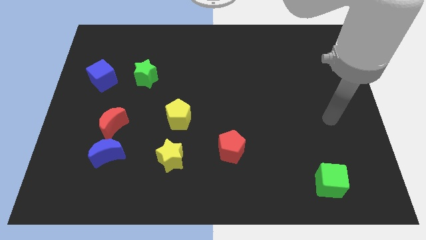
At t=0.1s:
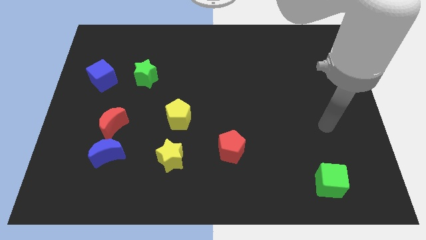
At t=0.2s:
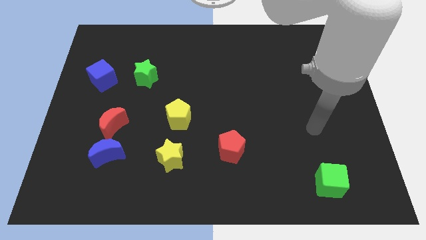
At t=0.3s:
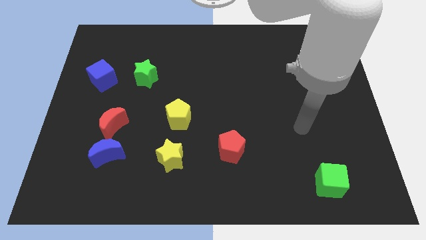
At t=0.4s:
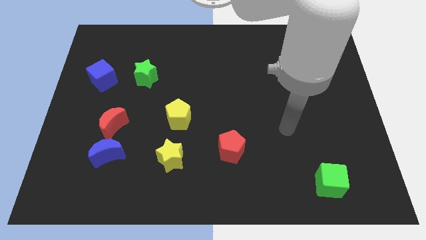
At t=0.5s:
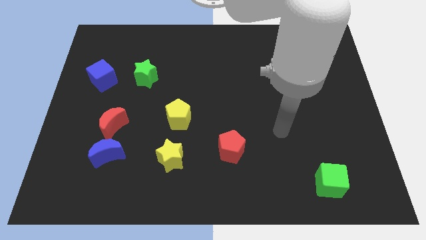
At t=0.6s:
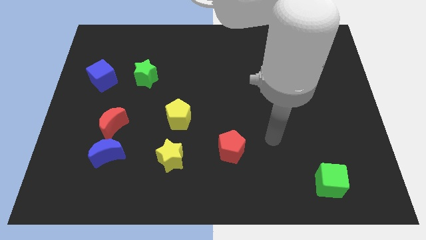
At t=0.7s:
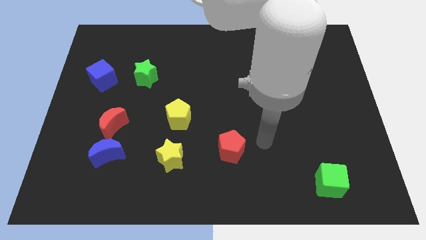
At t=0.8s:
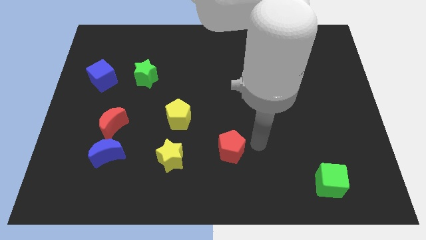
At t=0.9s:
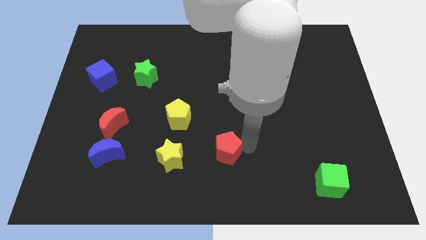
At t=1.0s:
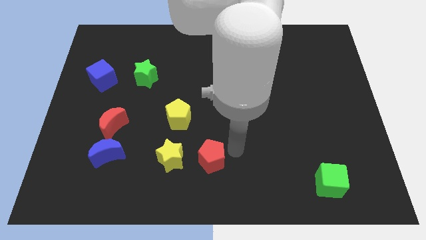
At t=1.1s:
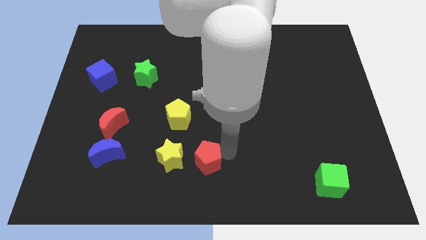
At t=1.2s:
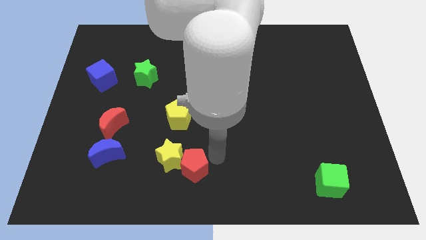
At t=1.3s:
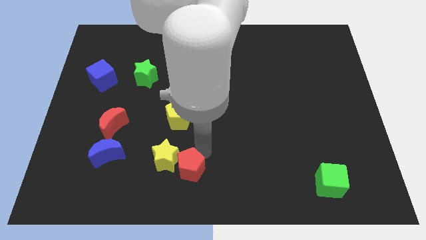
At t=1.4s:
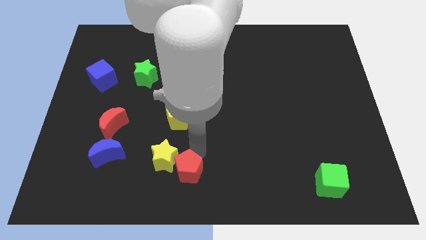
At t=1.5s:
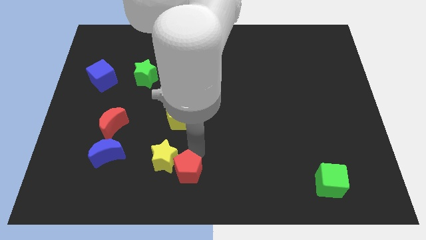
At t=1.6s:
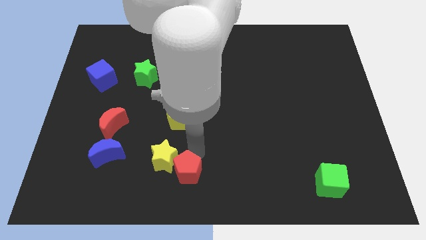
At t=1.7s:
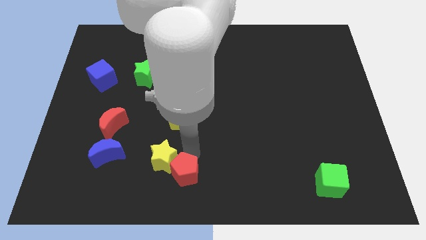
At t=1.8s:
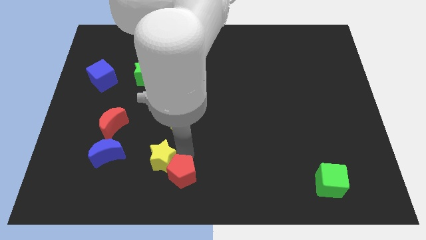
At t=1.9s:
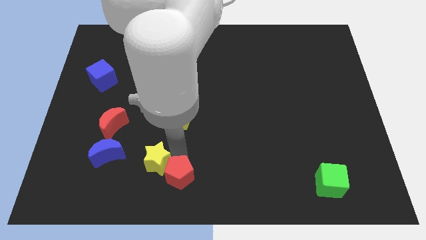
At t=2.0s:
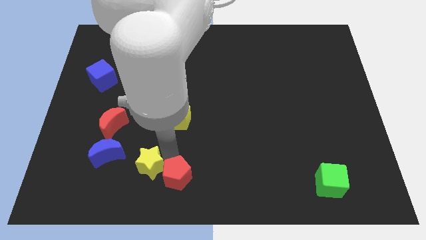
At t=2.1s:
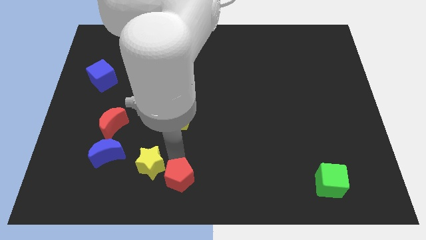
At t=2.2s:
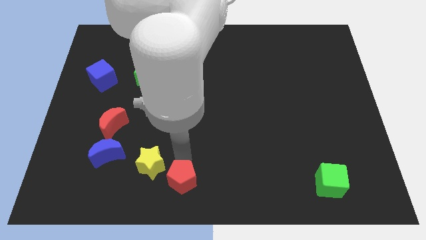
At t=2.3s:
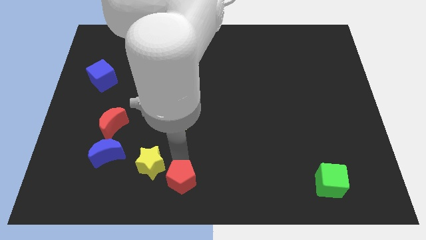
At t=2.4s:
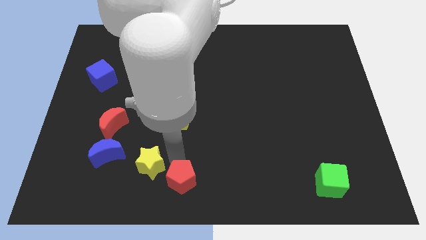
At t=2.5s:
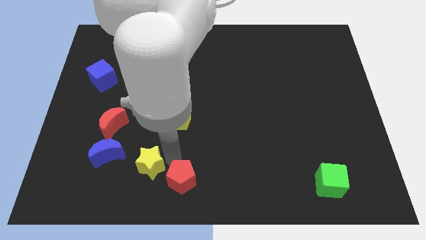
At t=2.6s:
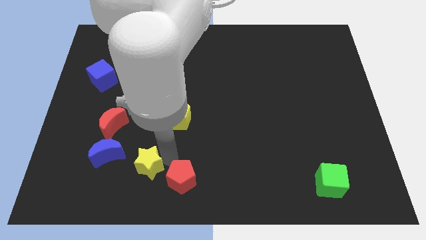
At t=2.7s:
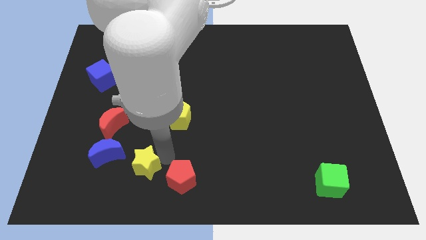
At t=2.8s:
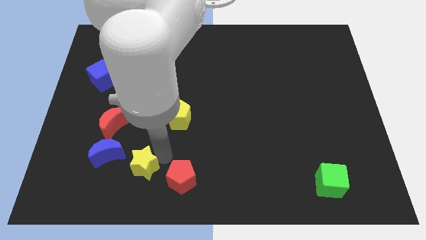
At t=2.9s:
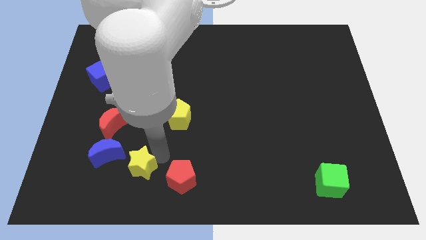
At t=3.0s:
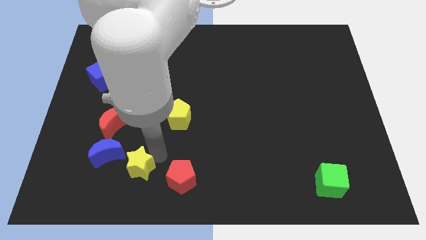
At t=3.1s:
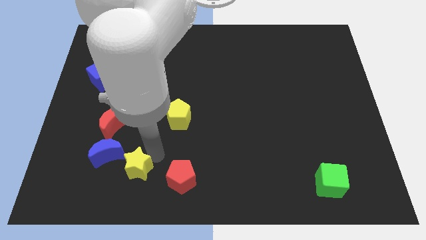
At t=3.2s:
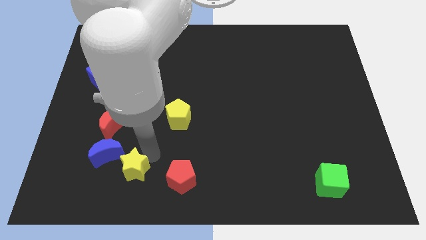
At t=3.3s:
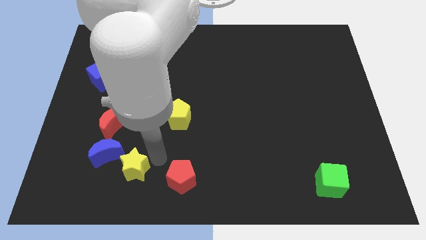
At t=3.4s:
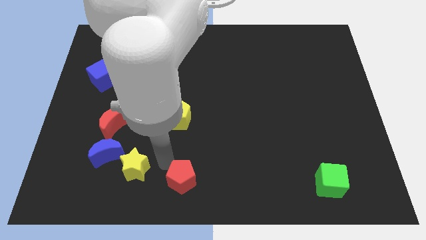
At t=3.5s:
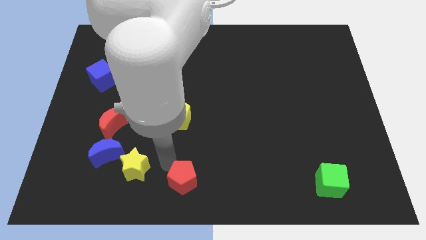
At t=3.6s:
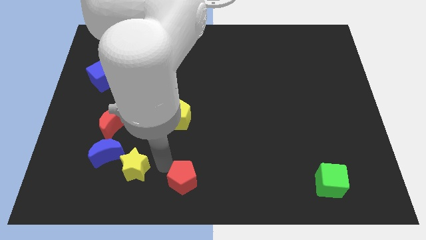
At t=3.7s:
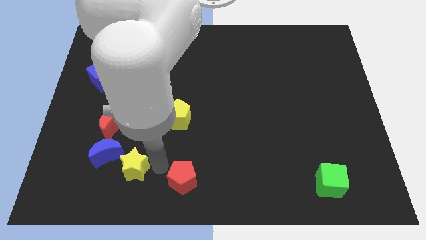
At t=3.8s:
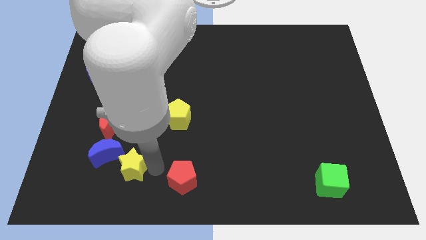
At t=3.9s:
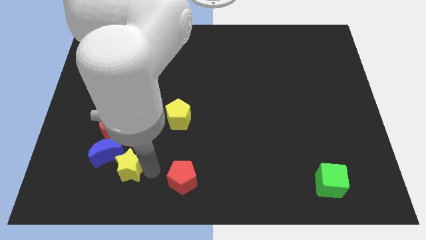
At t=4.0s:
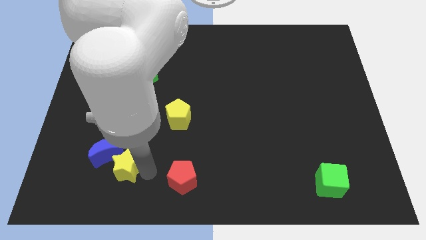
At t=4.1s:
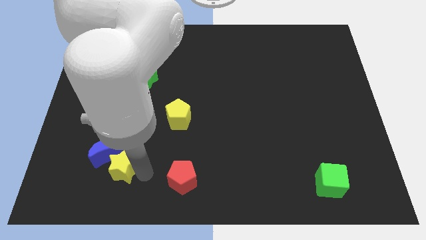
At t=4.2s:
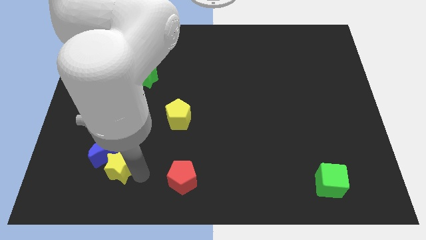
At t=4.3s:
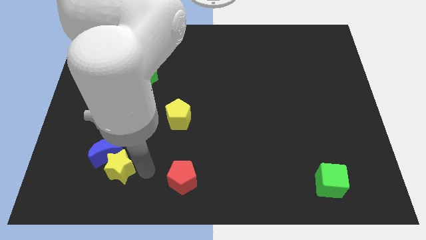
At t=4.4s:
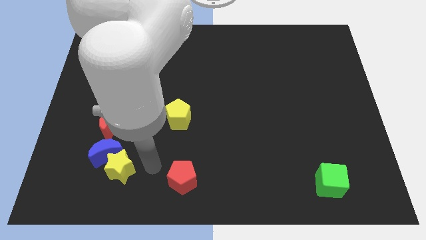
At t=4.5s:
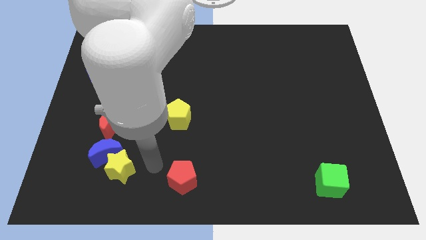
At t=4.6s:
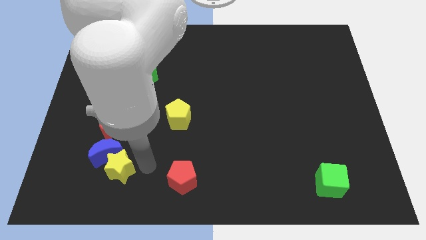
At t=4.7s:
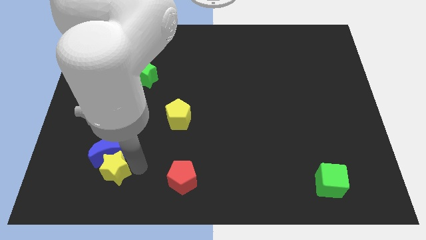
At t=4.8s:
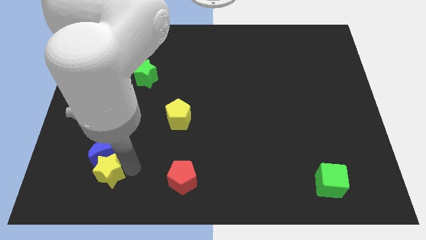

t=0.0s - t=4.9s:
put the yellow star to the bottom left of the blue moon

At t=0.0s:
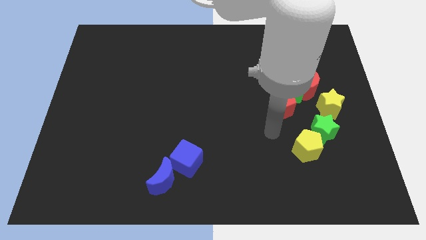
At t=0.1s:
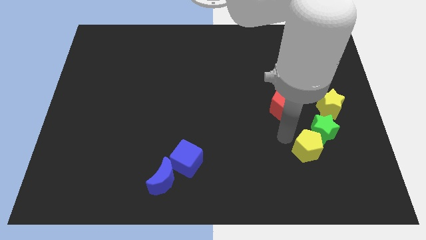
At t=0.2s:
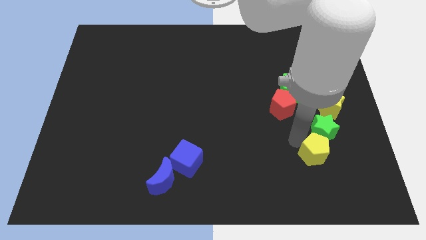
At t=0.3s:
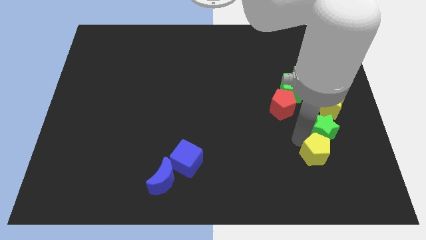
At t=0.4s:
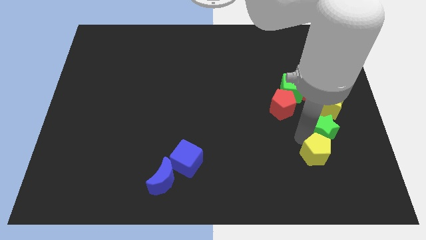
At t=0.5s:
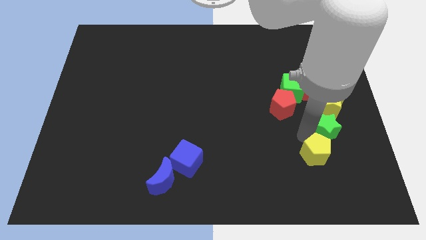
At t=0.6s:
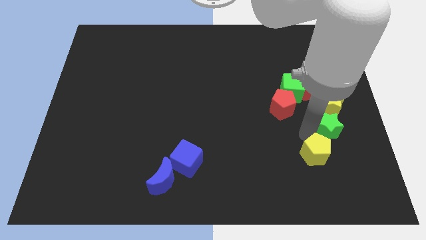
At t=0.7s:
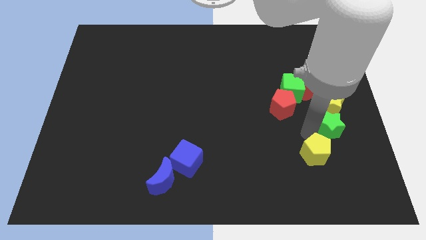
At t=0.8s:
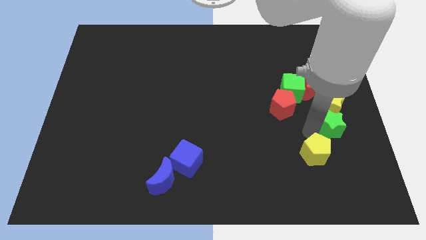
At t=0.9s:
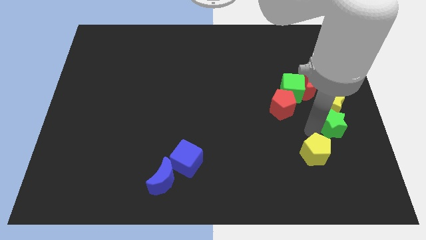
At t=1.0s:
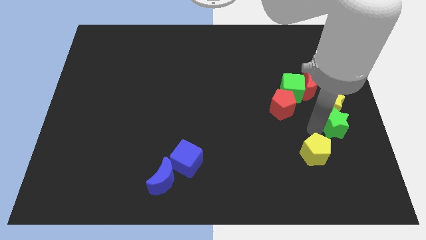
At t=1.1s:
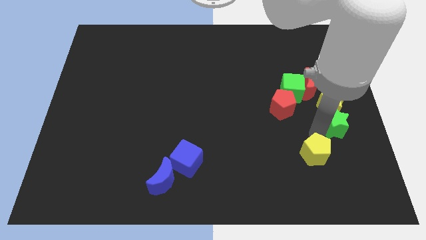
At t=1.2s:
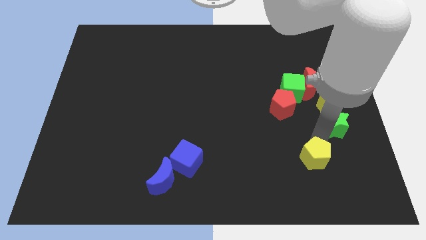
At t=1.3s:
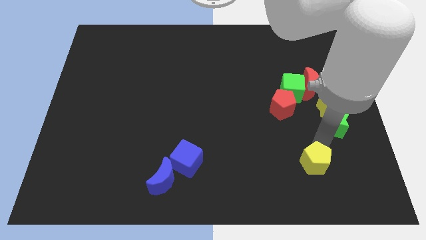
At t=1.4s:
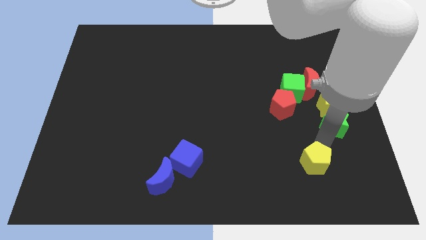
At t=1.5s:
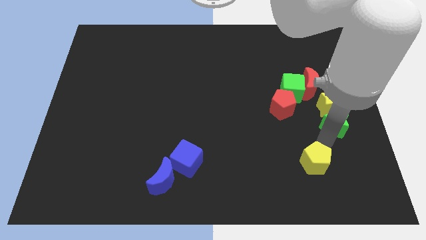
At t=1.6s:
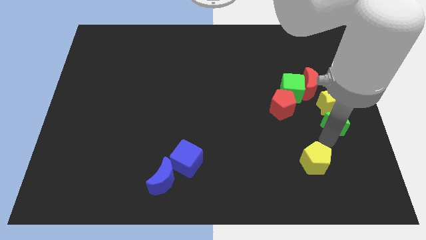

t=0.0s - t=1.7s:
put the green star right of the red pentagon
